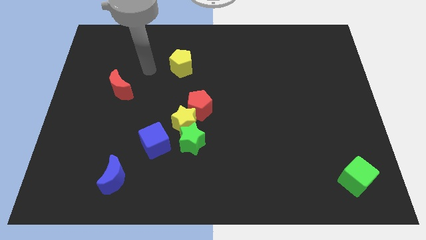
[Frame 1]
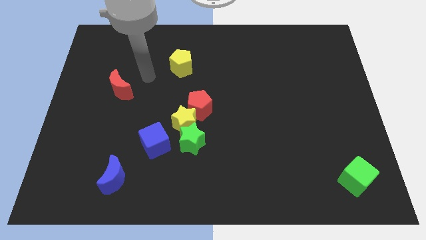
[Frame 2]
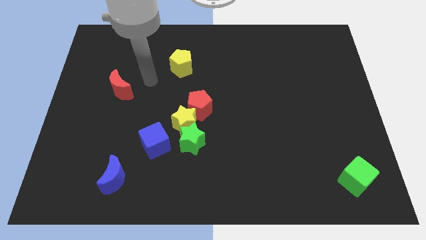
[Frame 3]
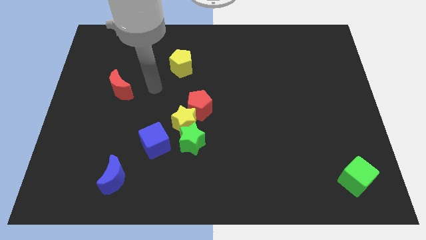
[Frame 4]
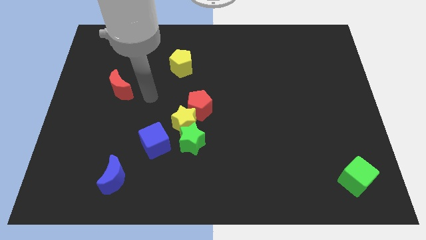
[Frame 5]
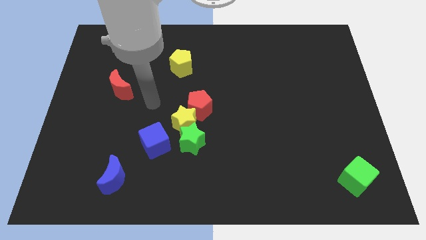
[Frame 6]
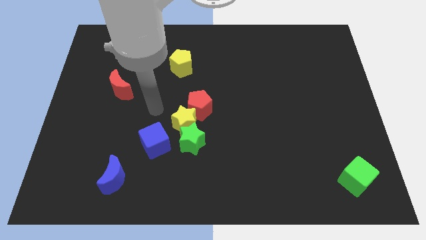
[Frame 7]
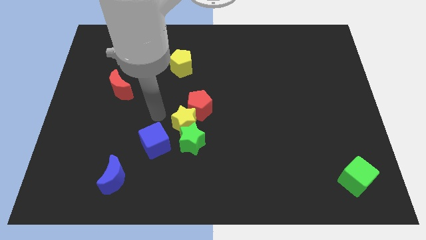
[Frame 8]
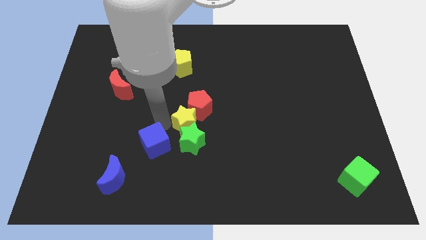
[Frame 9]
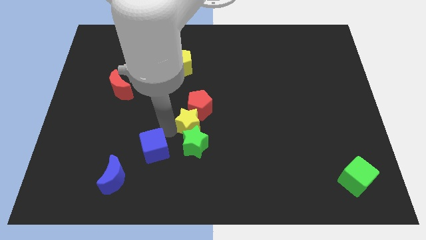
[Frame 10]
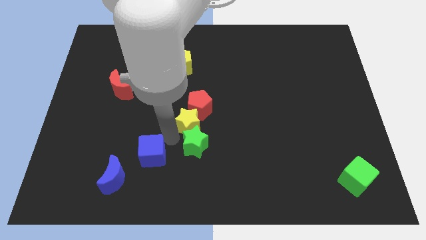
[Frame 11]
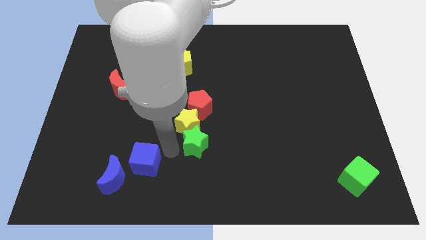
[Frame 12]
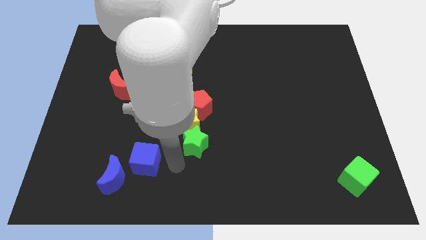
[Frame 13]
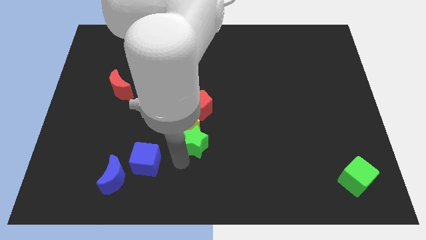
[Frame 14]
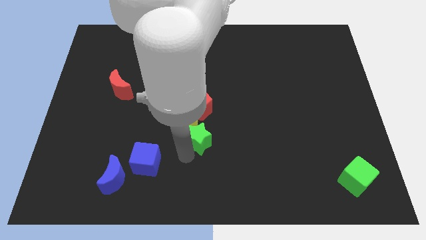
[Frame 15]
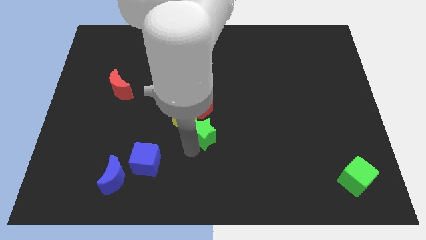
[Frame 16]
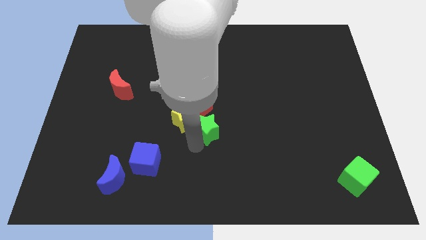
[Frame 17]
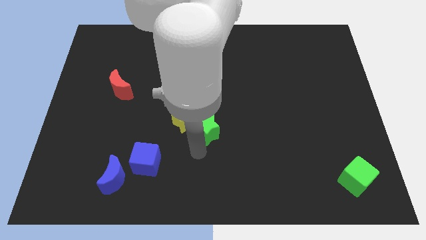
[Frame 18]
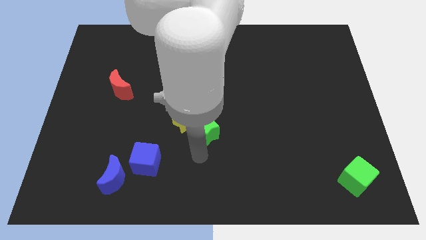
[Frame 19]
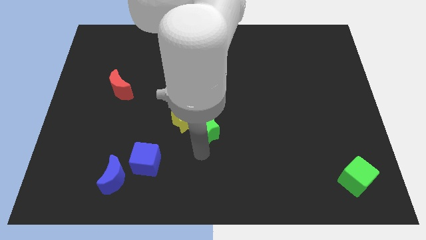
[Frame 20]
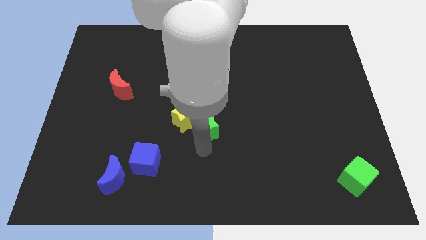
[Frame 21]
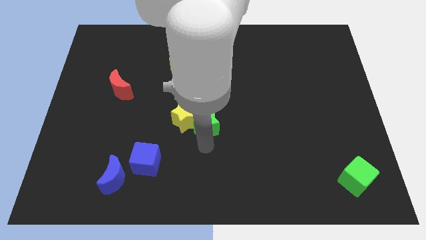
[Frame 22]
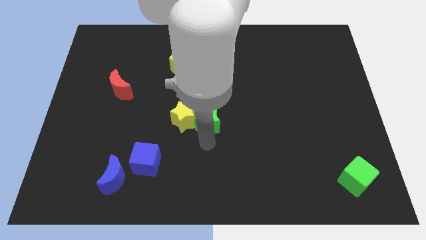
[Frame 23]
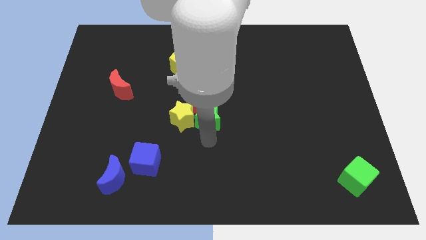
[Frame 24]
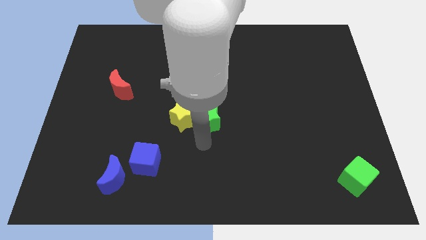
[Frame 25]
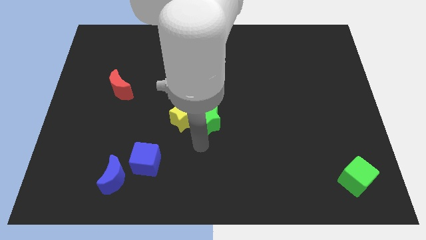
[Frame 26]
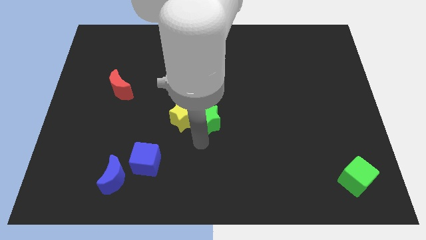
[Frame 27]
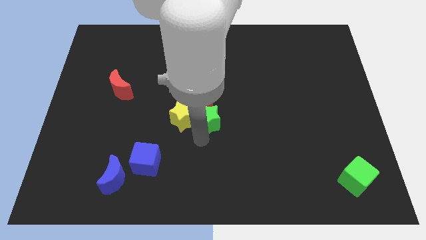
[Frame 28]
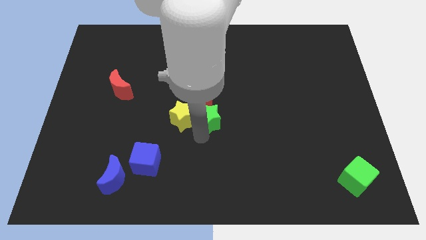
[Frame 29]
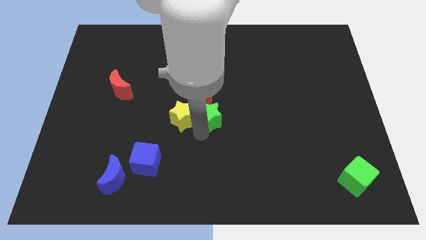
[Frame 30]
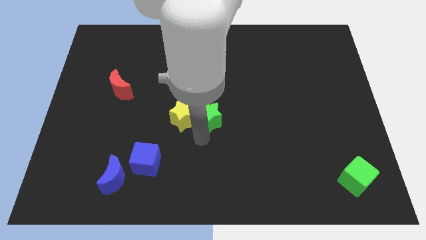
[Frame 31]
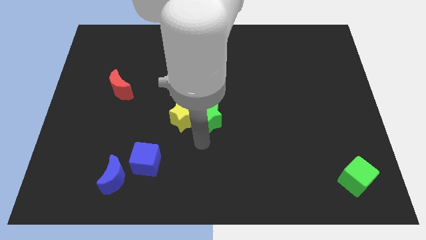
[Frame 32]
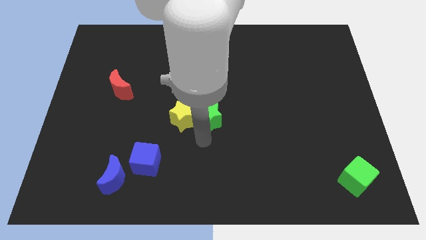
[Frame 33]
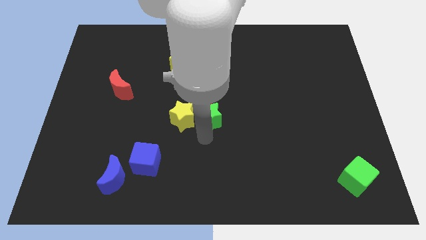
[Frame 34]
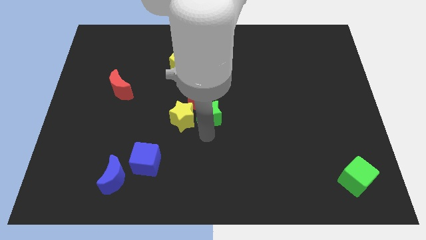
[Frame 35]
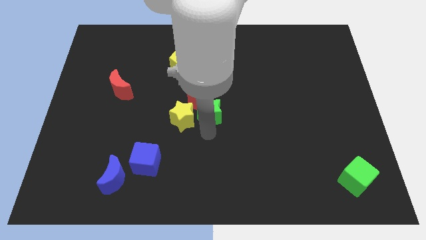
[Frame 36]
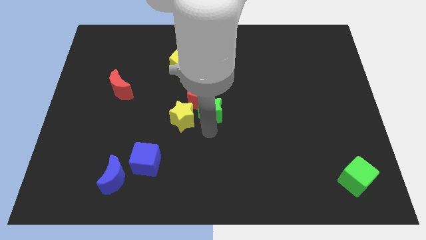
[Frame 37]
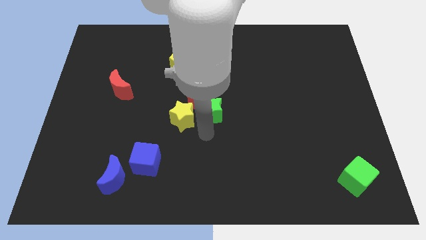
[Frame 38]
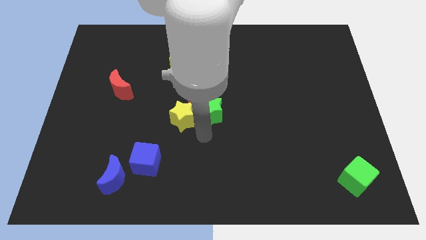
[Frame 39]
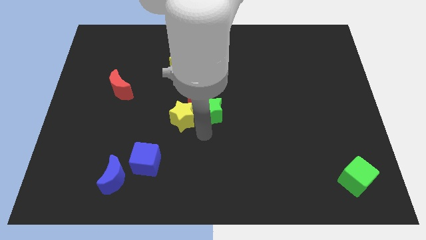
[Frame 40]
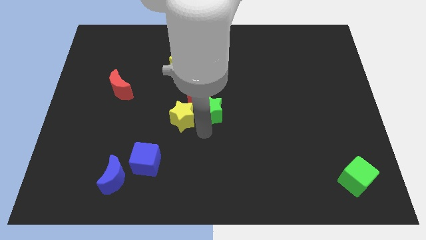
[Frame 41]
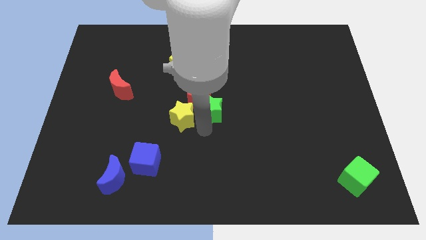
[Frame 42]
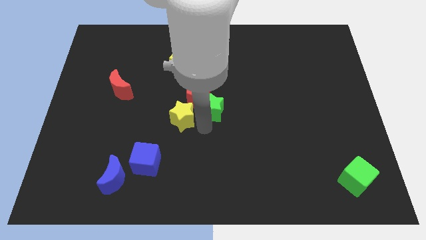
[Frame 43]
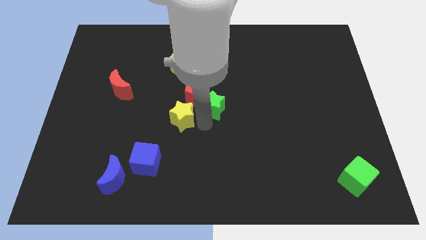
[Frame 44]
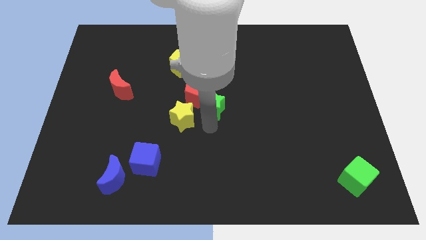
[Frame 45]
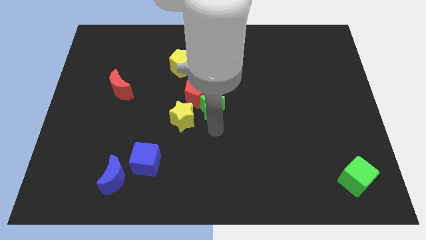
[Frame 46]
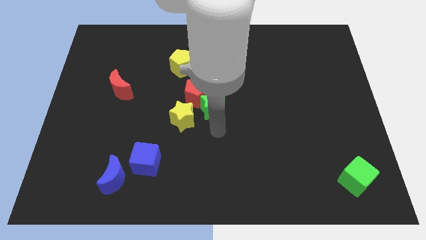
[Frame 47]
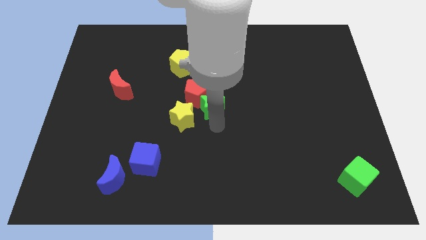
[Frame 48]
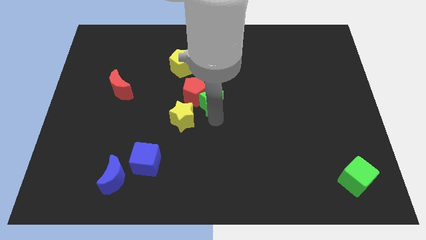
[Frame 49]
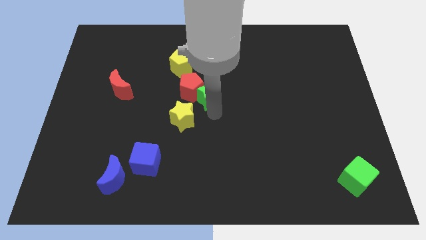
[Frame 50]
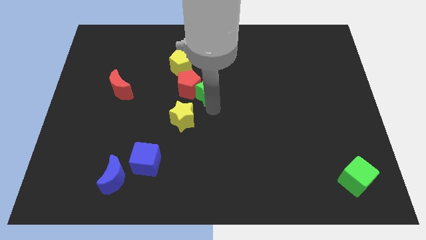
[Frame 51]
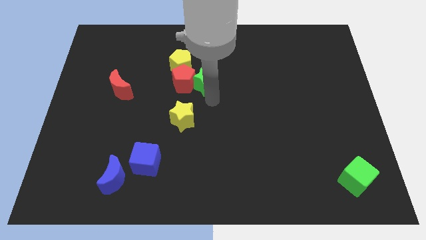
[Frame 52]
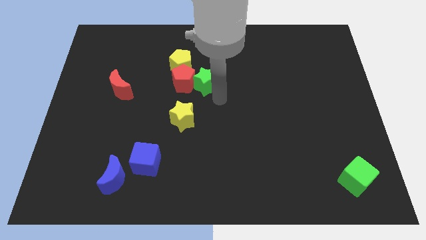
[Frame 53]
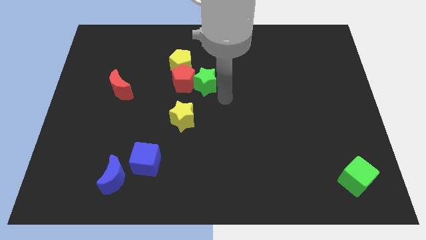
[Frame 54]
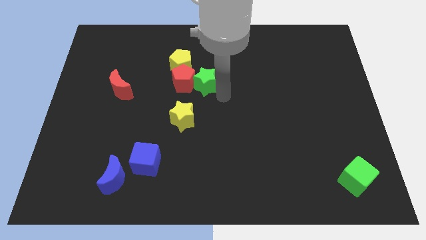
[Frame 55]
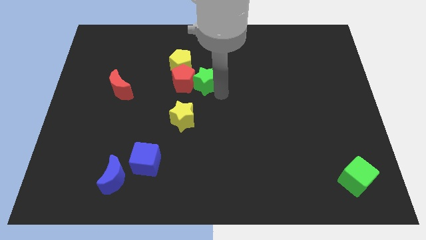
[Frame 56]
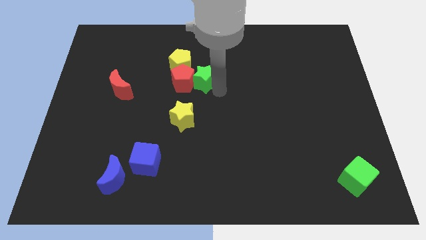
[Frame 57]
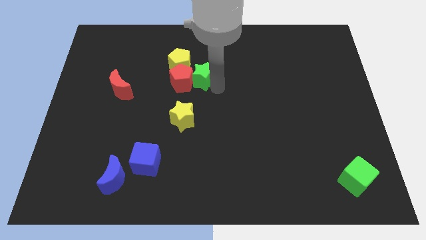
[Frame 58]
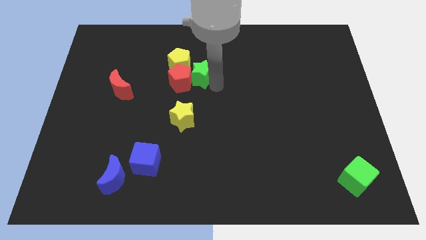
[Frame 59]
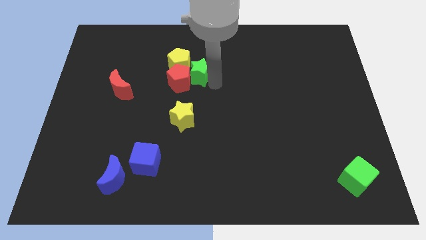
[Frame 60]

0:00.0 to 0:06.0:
put the green star towards the yellow pentagon

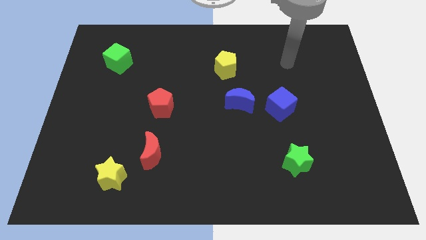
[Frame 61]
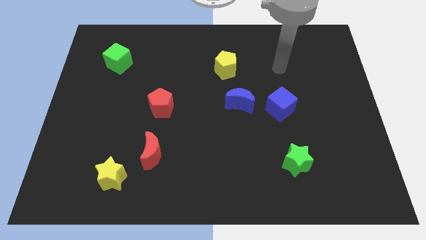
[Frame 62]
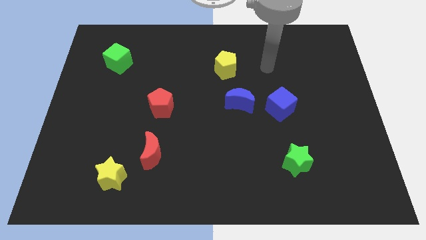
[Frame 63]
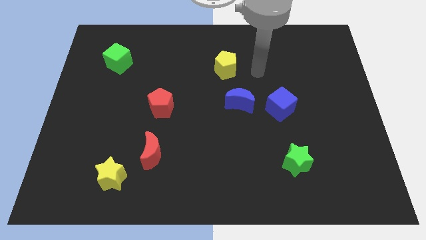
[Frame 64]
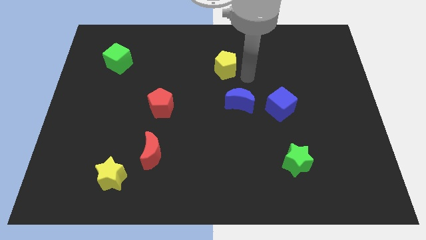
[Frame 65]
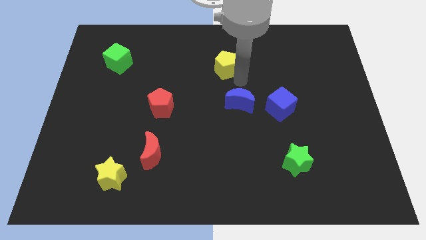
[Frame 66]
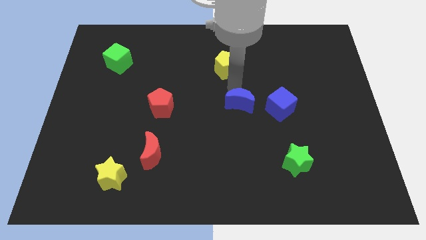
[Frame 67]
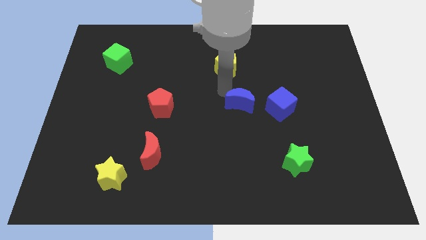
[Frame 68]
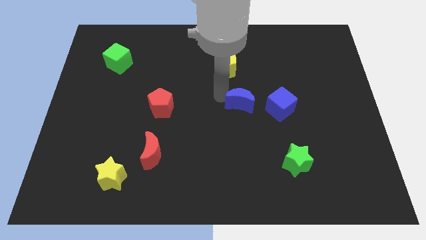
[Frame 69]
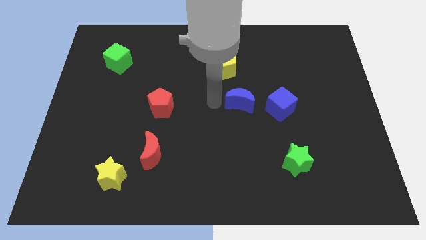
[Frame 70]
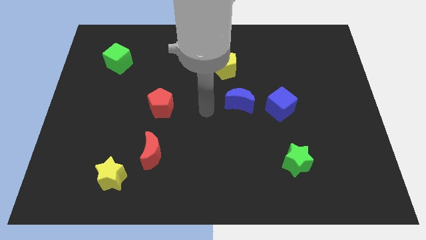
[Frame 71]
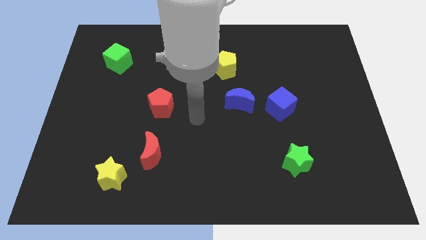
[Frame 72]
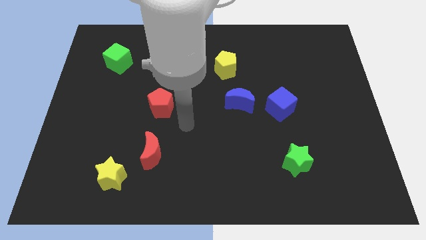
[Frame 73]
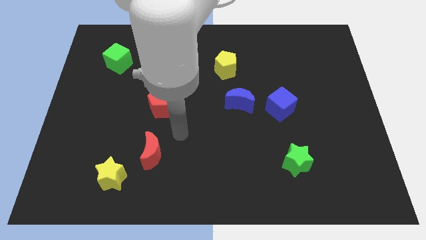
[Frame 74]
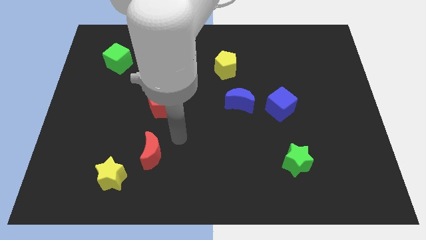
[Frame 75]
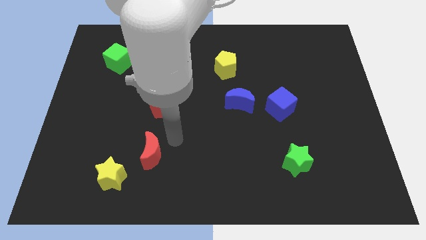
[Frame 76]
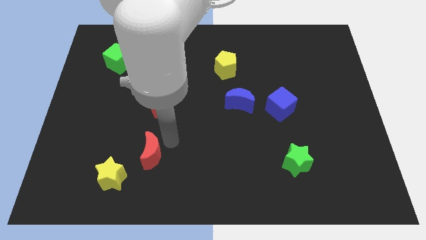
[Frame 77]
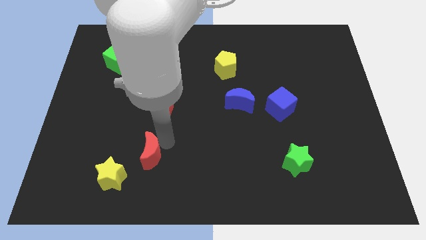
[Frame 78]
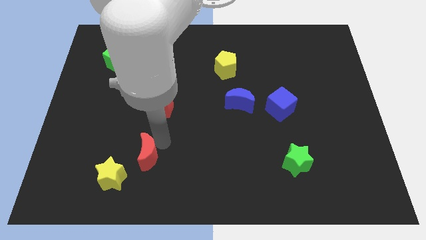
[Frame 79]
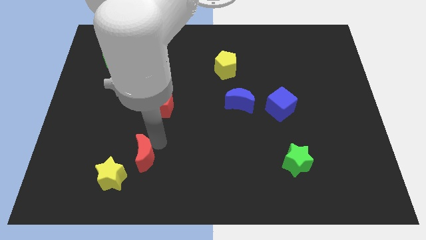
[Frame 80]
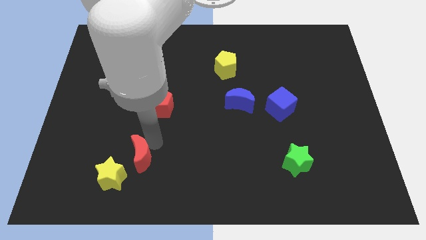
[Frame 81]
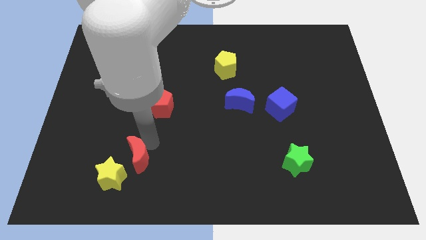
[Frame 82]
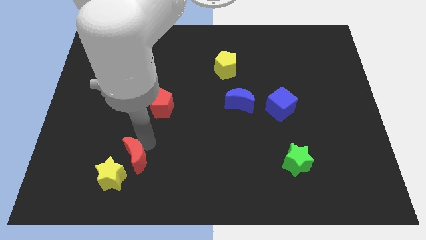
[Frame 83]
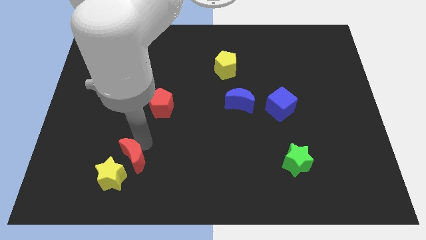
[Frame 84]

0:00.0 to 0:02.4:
slide the red moon towards the yellow star
